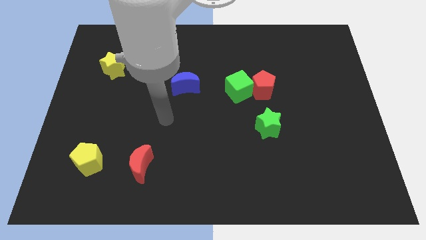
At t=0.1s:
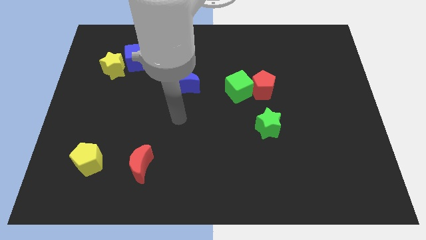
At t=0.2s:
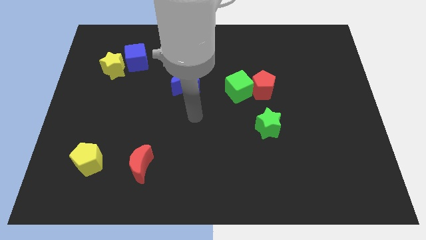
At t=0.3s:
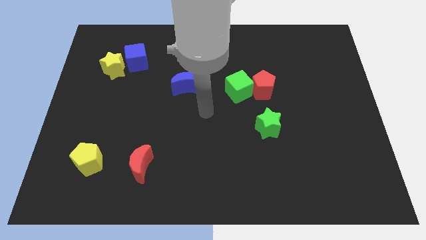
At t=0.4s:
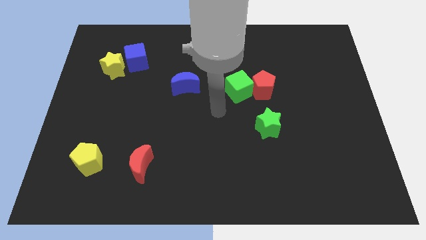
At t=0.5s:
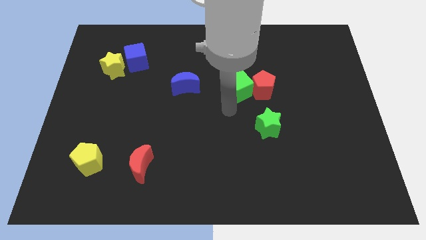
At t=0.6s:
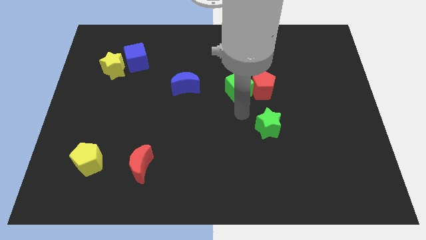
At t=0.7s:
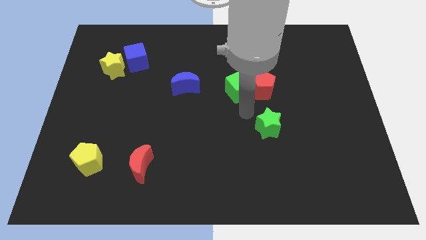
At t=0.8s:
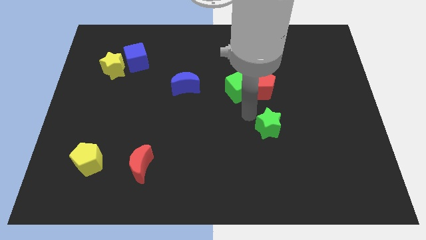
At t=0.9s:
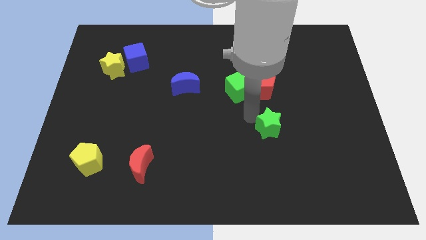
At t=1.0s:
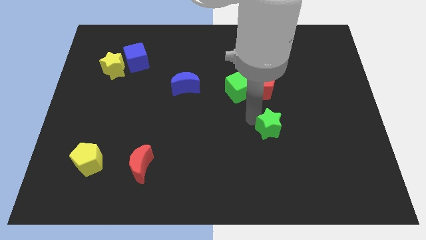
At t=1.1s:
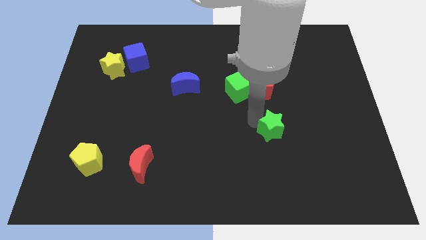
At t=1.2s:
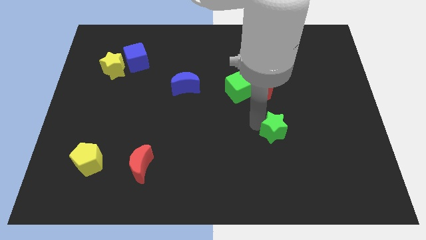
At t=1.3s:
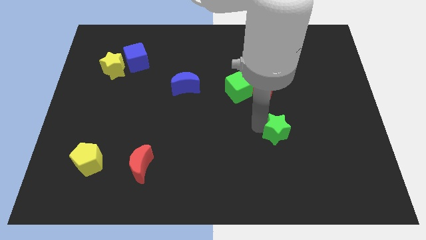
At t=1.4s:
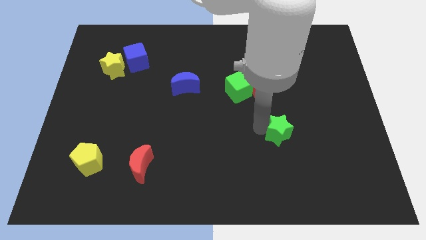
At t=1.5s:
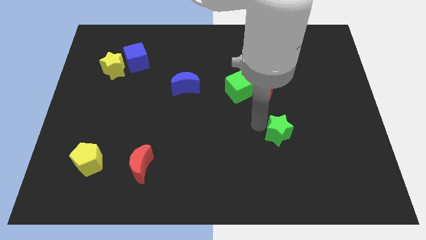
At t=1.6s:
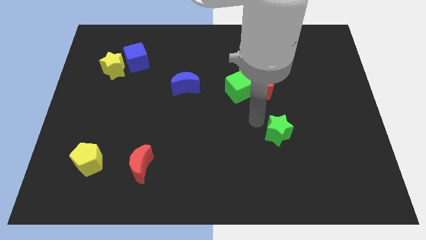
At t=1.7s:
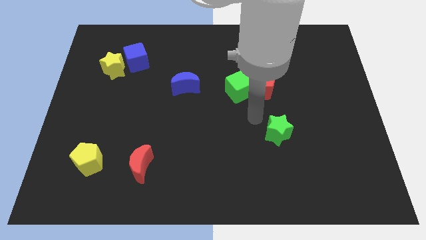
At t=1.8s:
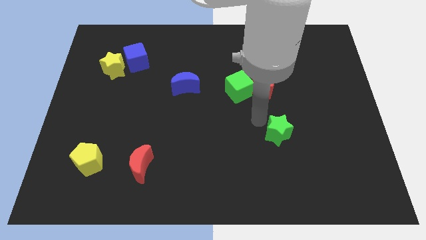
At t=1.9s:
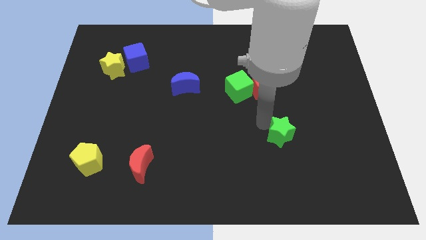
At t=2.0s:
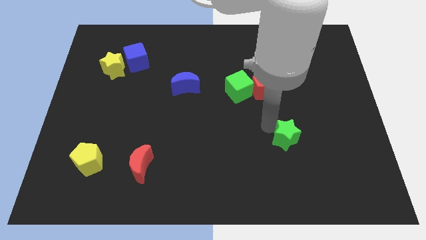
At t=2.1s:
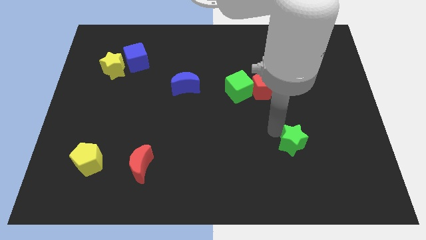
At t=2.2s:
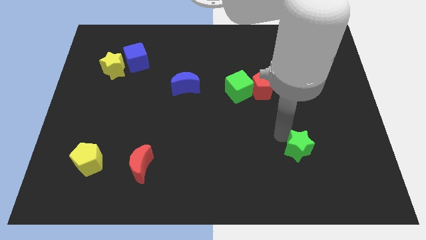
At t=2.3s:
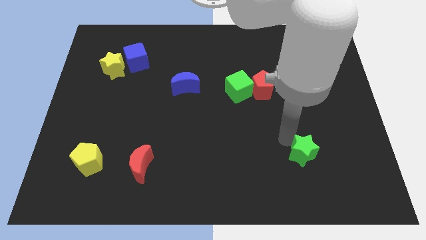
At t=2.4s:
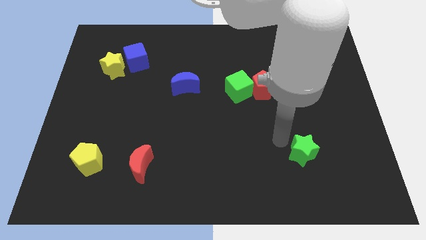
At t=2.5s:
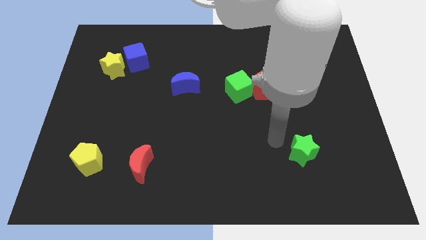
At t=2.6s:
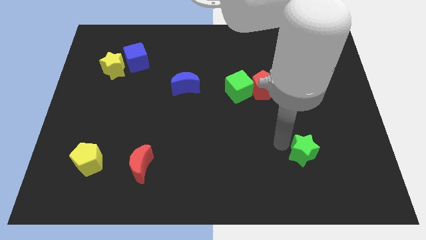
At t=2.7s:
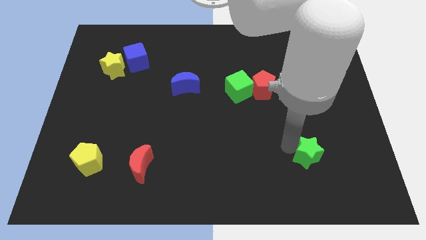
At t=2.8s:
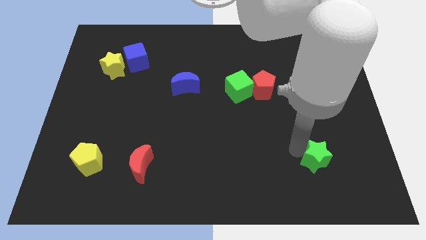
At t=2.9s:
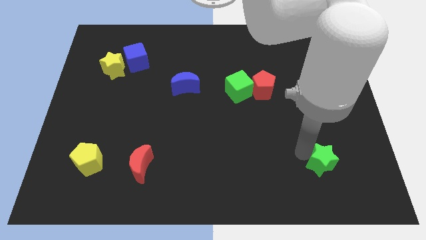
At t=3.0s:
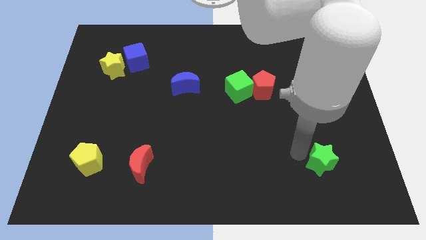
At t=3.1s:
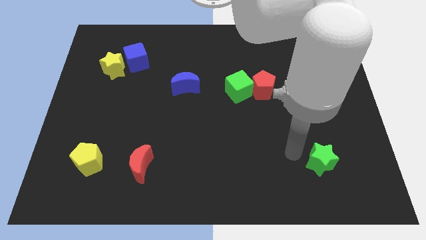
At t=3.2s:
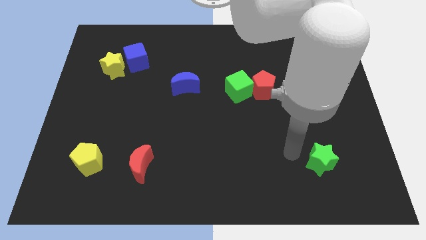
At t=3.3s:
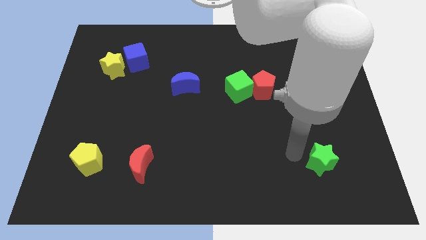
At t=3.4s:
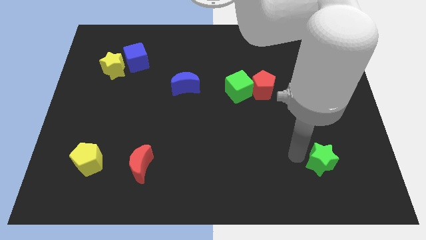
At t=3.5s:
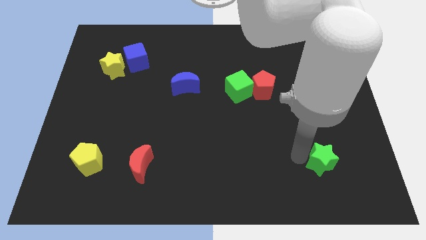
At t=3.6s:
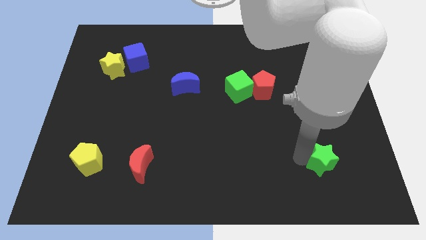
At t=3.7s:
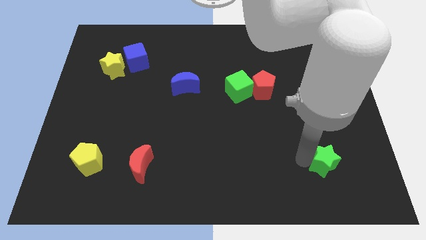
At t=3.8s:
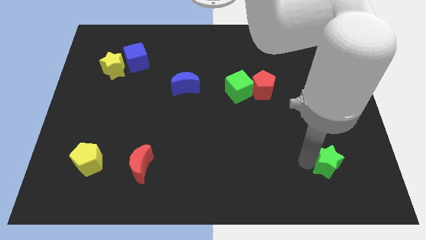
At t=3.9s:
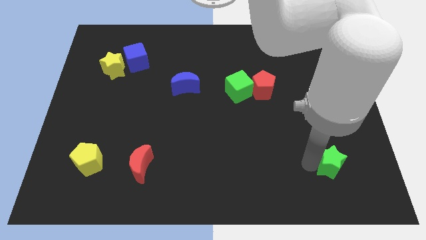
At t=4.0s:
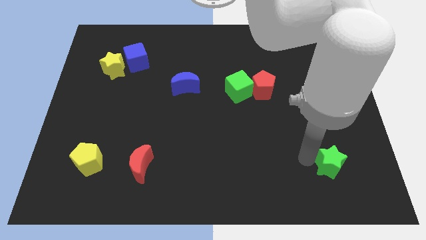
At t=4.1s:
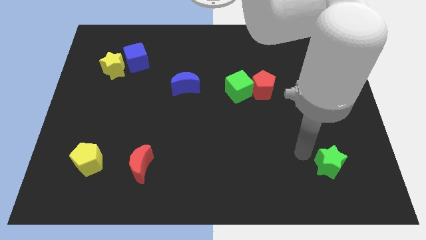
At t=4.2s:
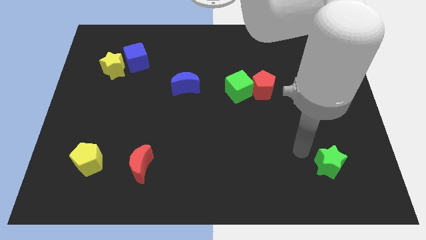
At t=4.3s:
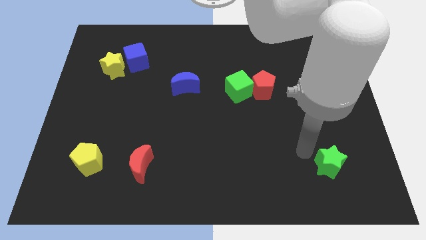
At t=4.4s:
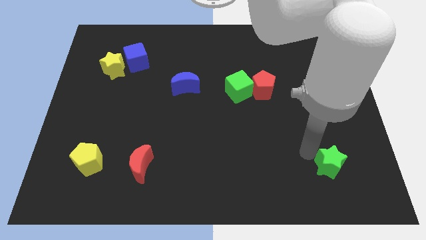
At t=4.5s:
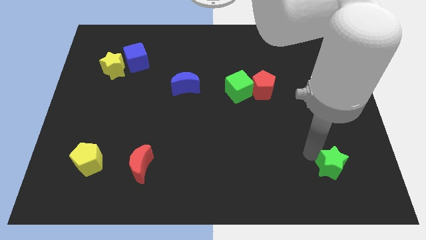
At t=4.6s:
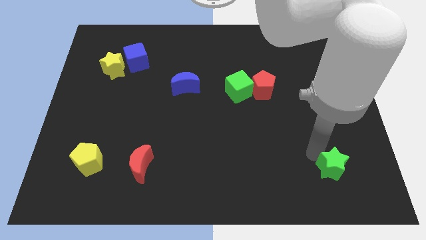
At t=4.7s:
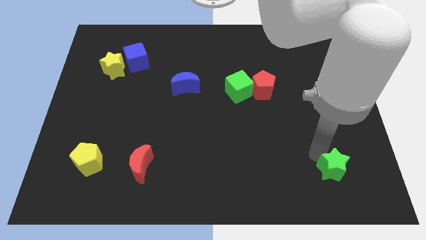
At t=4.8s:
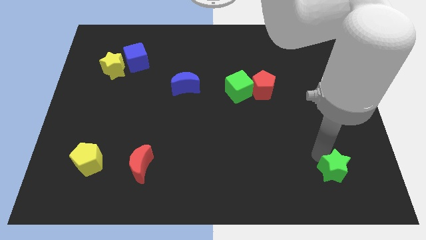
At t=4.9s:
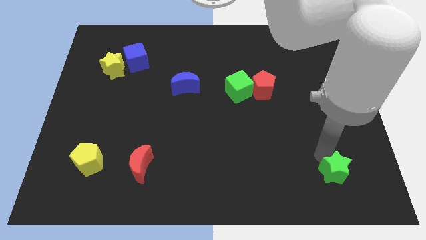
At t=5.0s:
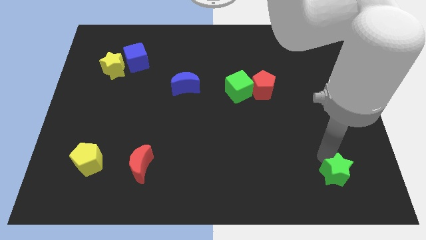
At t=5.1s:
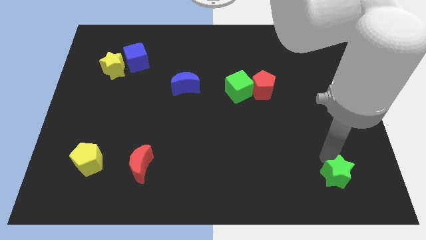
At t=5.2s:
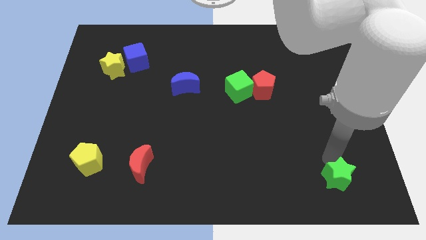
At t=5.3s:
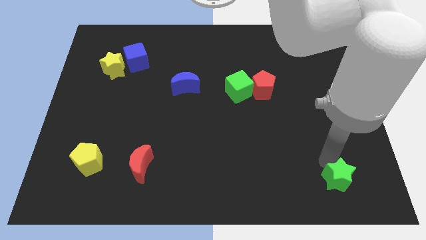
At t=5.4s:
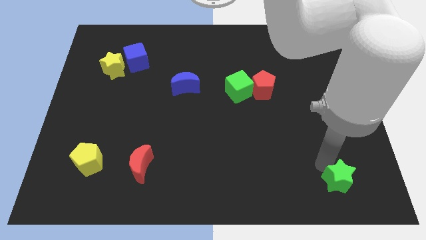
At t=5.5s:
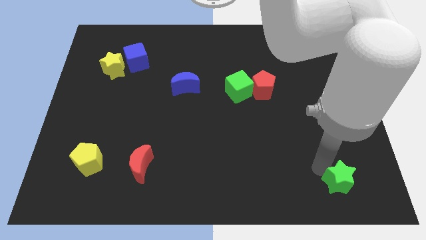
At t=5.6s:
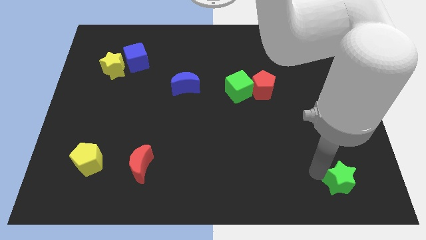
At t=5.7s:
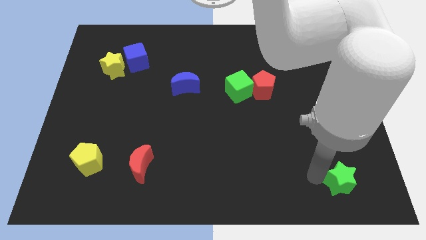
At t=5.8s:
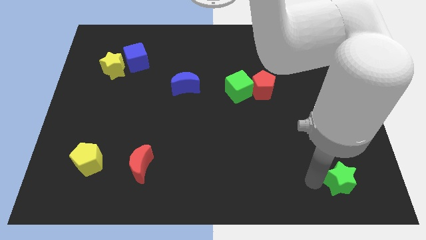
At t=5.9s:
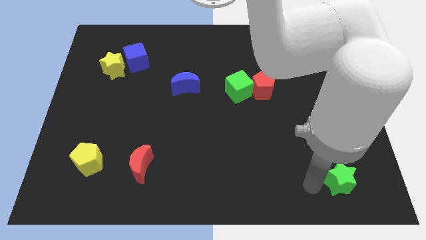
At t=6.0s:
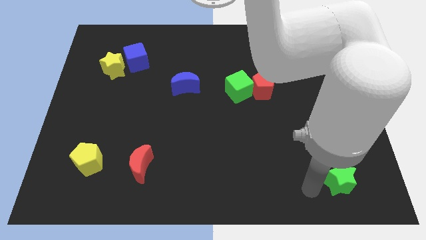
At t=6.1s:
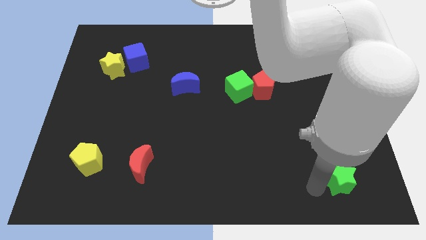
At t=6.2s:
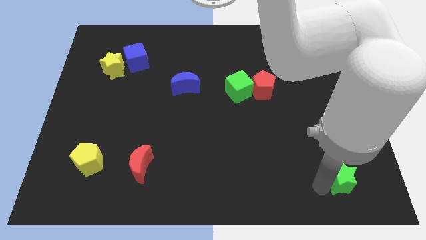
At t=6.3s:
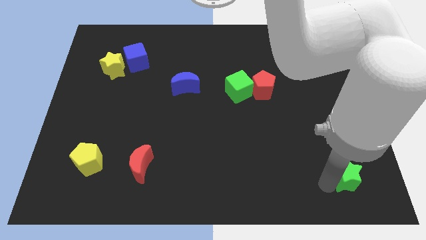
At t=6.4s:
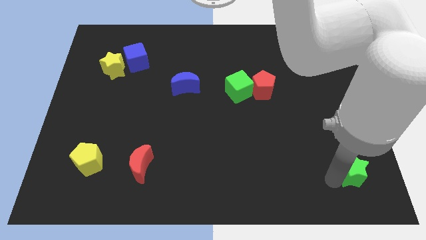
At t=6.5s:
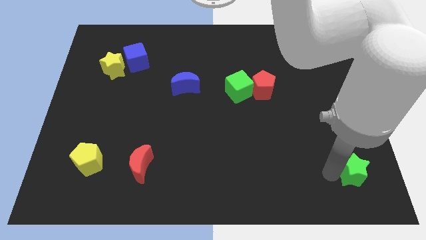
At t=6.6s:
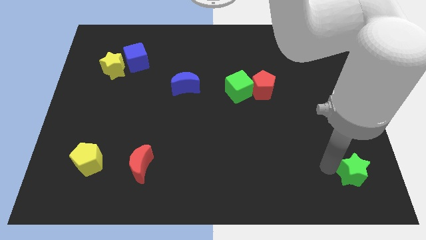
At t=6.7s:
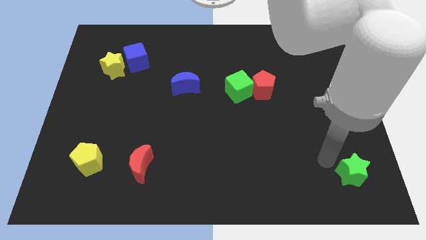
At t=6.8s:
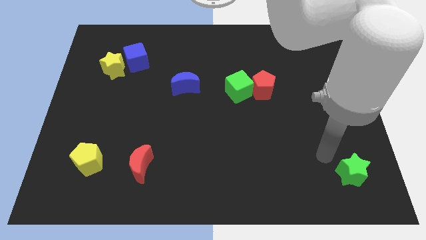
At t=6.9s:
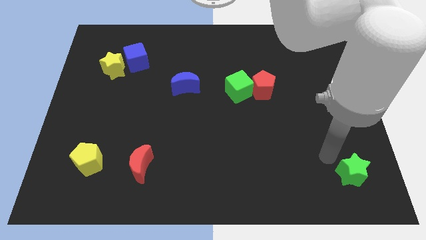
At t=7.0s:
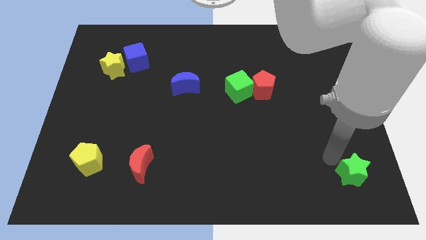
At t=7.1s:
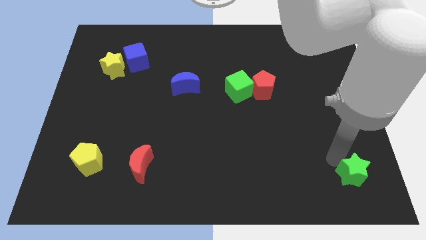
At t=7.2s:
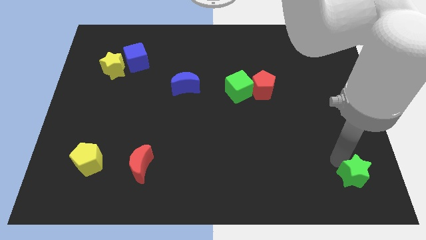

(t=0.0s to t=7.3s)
push the green star to the bottom right
